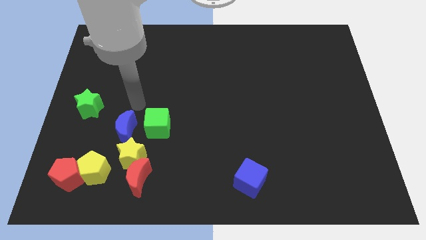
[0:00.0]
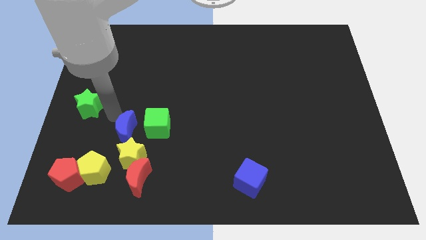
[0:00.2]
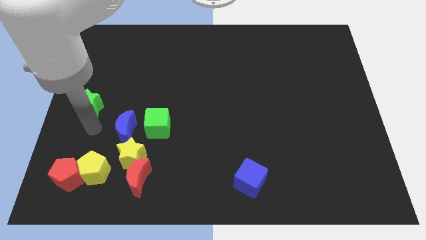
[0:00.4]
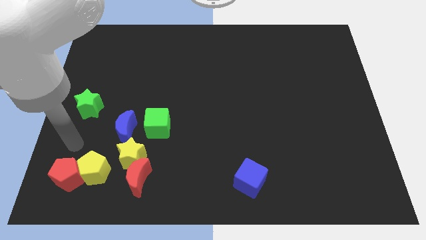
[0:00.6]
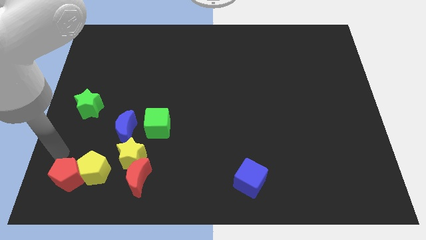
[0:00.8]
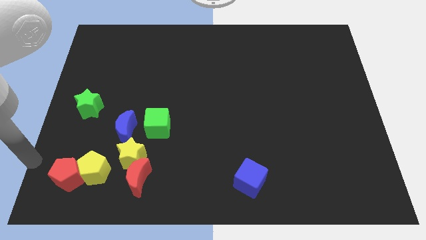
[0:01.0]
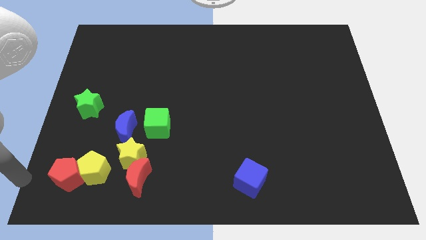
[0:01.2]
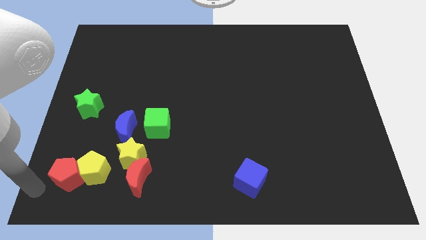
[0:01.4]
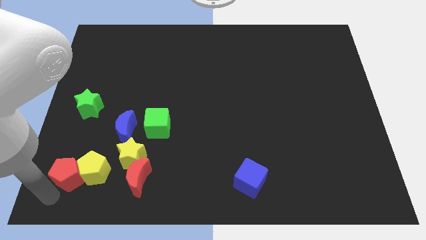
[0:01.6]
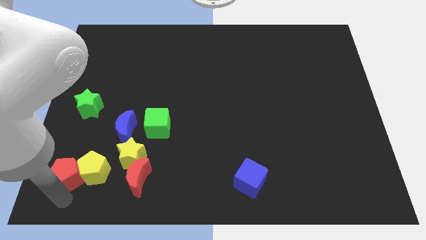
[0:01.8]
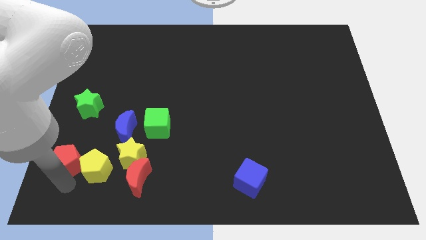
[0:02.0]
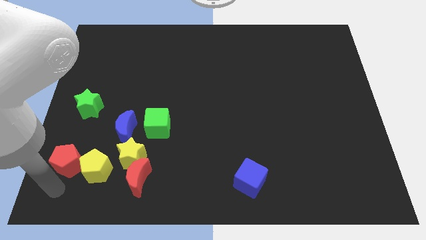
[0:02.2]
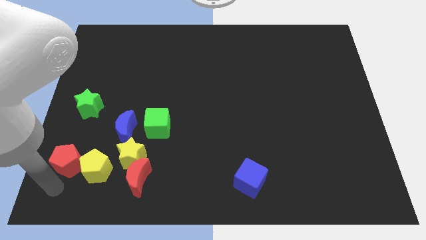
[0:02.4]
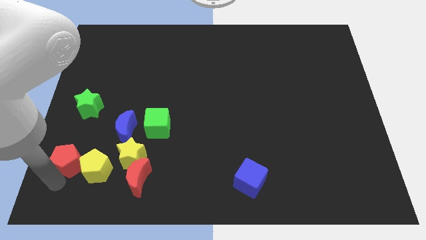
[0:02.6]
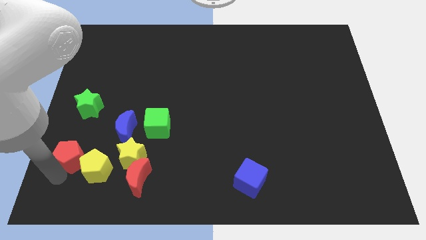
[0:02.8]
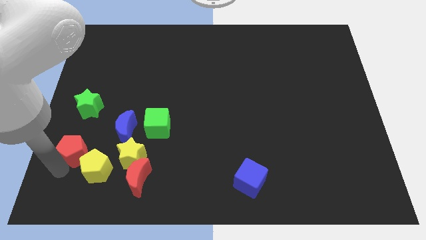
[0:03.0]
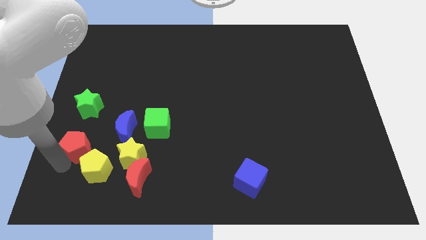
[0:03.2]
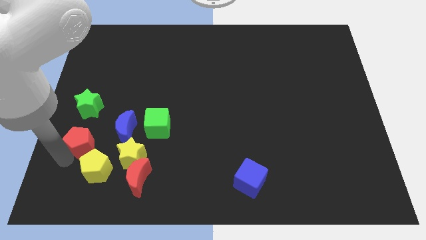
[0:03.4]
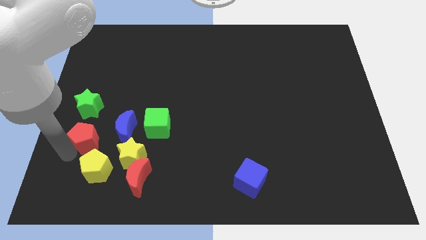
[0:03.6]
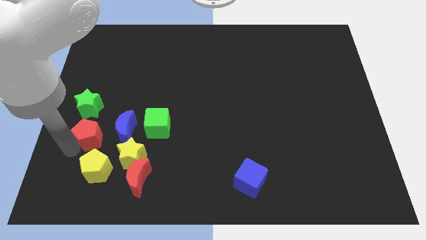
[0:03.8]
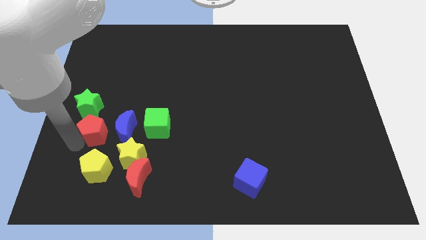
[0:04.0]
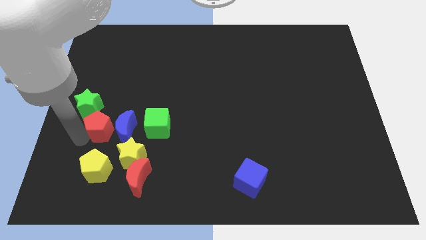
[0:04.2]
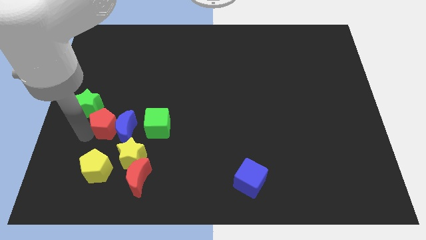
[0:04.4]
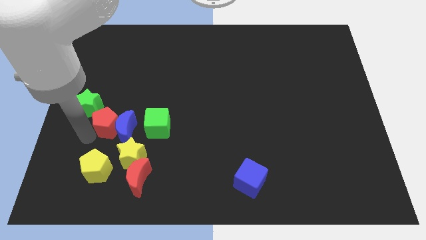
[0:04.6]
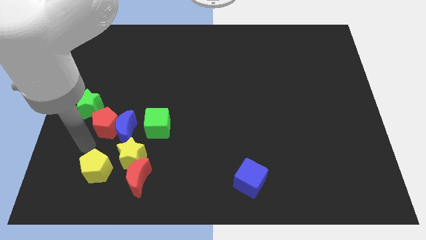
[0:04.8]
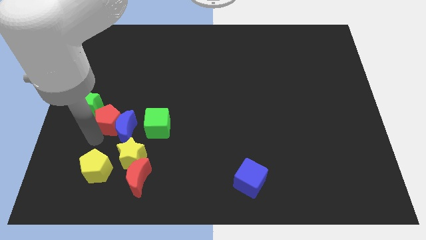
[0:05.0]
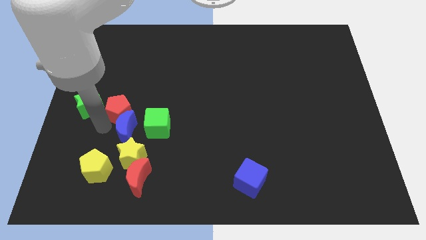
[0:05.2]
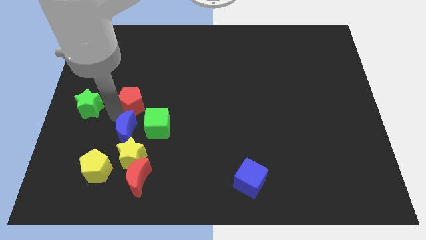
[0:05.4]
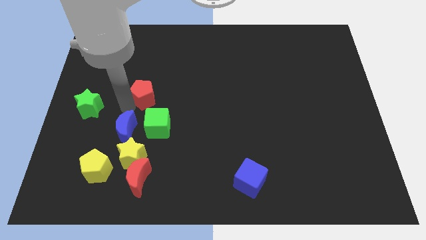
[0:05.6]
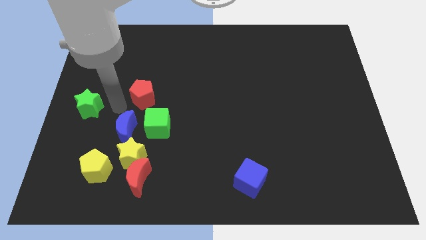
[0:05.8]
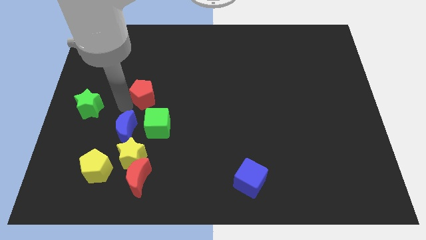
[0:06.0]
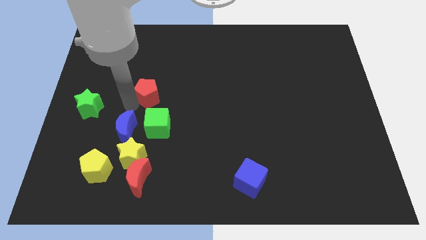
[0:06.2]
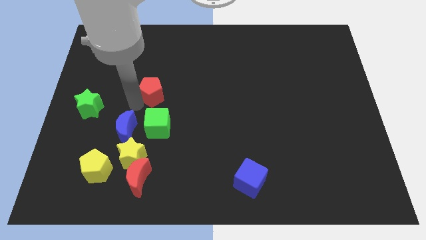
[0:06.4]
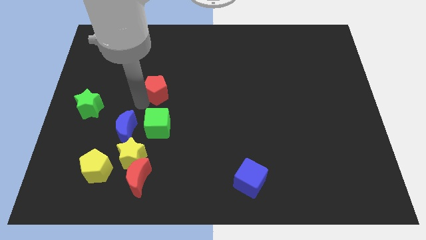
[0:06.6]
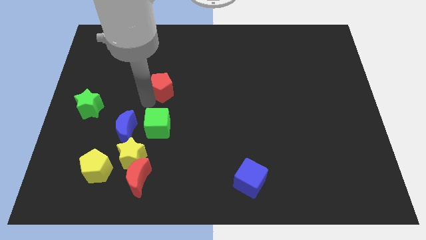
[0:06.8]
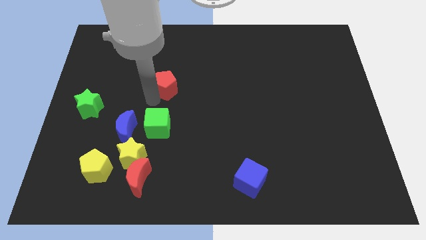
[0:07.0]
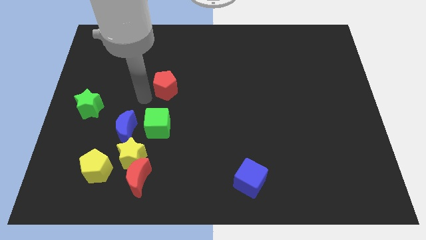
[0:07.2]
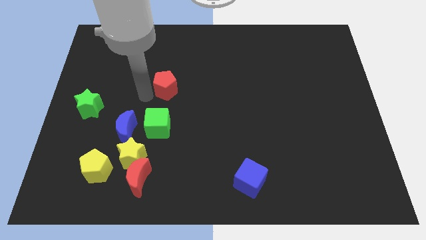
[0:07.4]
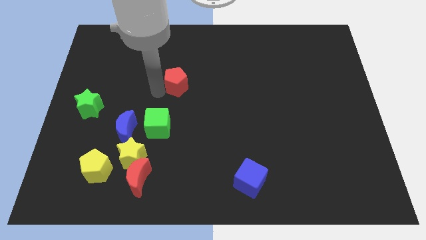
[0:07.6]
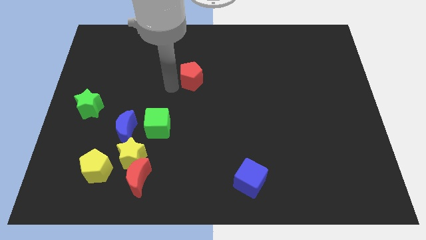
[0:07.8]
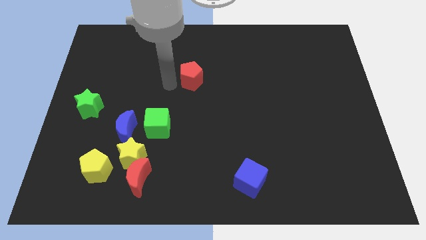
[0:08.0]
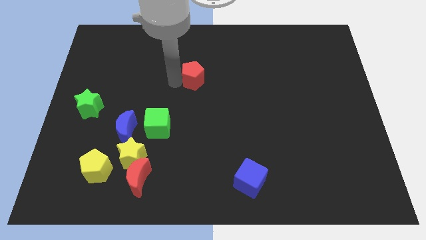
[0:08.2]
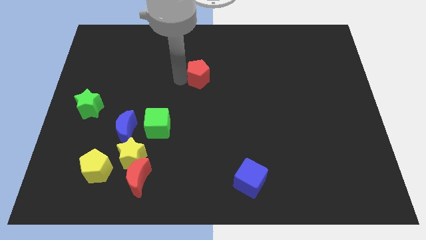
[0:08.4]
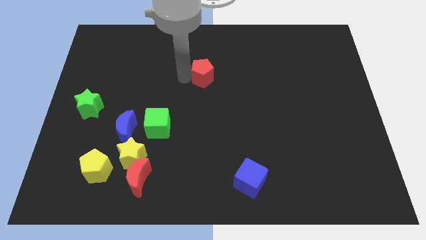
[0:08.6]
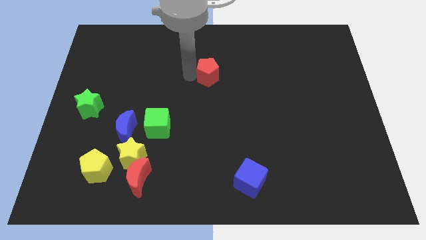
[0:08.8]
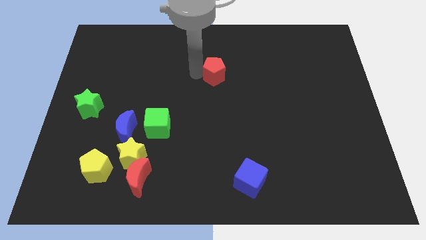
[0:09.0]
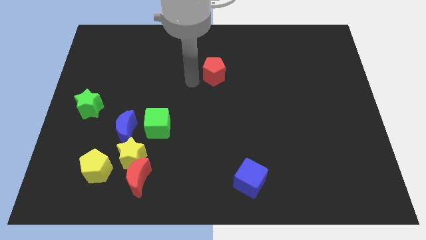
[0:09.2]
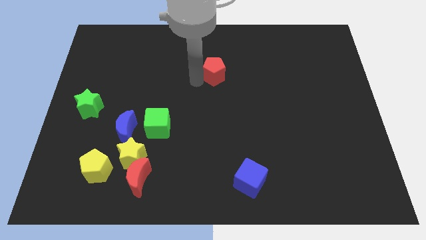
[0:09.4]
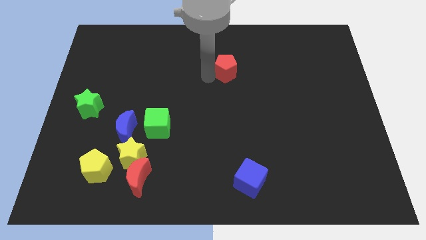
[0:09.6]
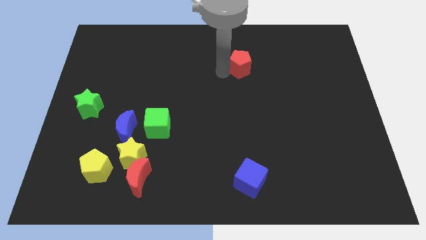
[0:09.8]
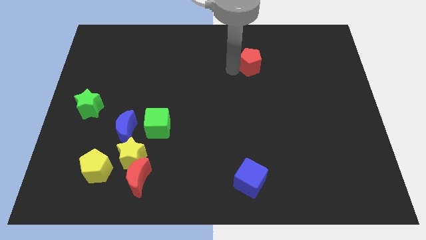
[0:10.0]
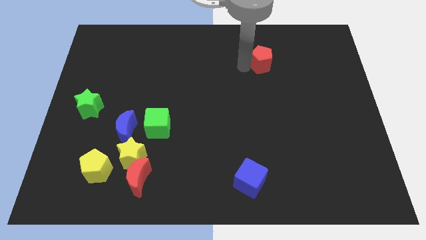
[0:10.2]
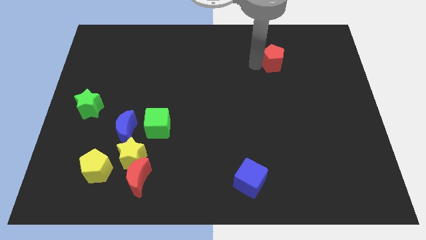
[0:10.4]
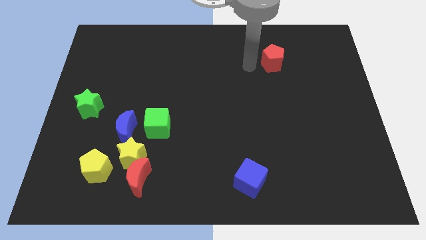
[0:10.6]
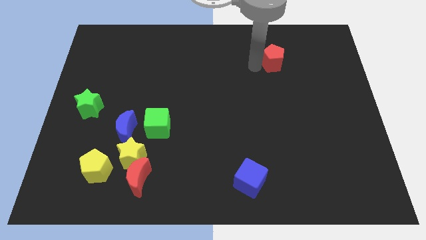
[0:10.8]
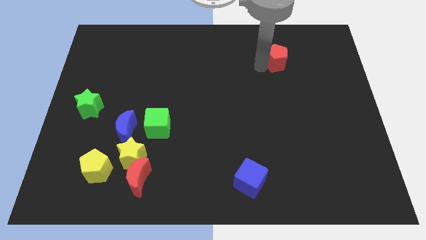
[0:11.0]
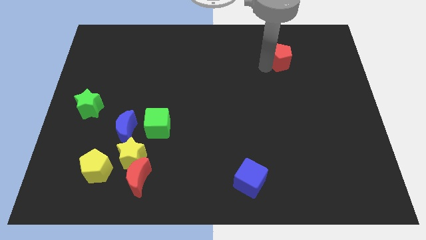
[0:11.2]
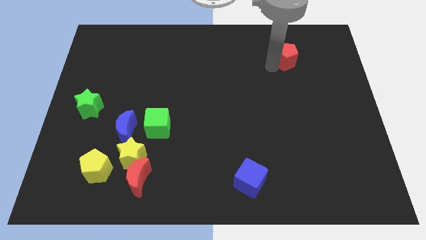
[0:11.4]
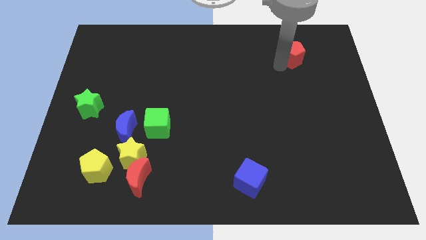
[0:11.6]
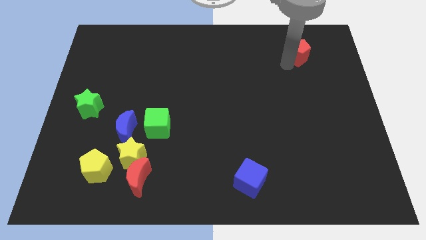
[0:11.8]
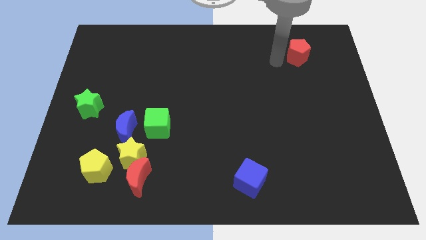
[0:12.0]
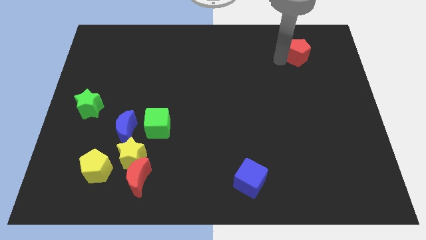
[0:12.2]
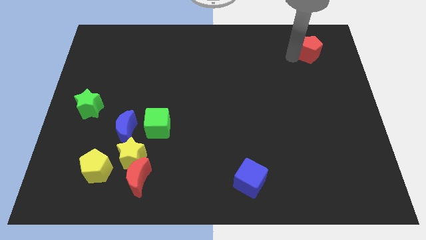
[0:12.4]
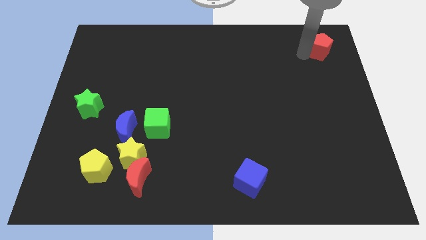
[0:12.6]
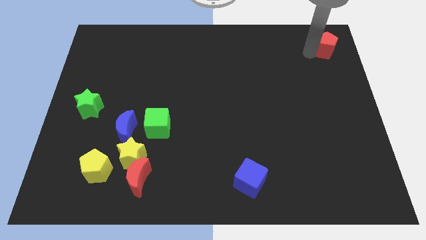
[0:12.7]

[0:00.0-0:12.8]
move the red pentagon to the top right
